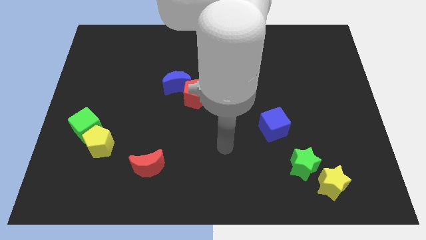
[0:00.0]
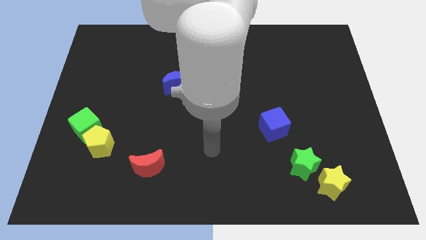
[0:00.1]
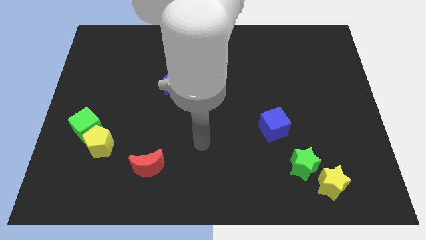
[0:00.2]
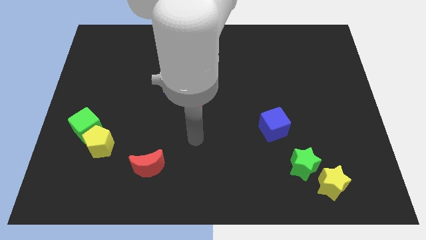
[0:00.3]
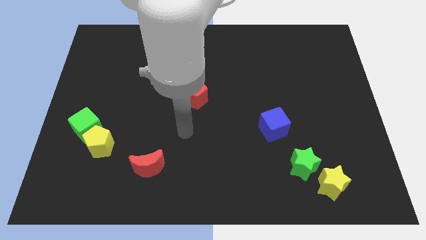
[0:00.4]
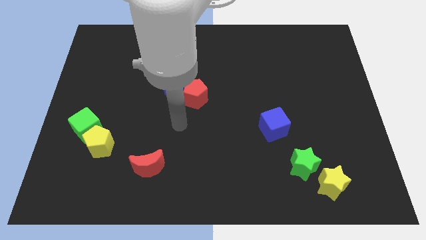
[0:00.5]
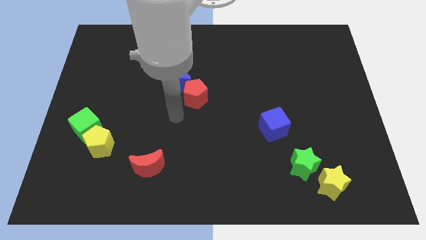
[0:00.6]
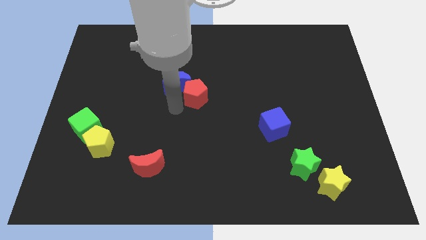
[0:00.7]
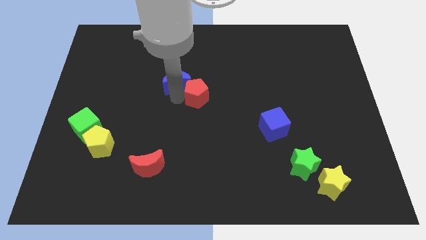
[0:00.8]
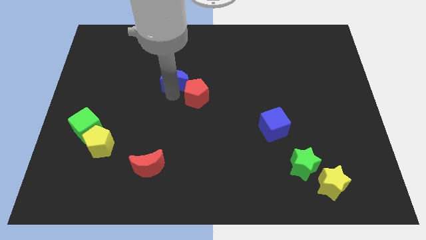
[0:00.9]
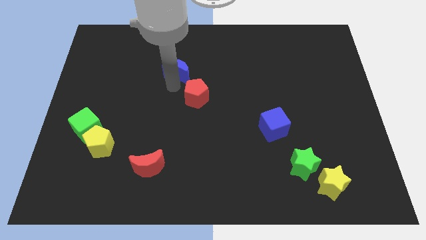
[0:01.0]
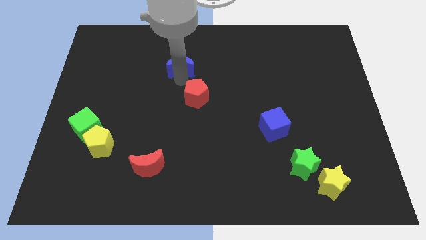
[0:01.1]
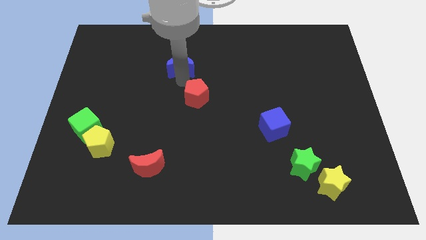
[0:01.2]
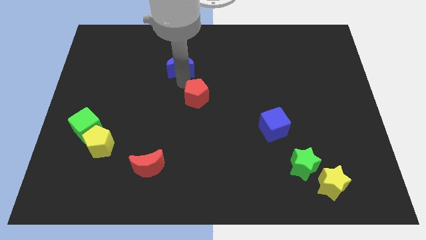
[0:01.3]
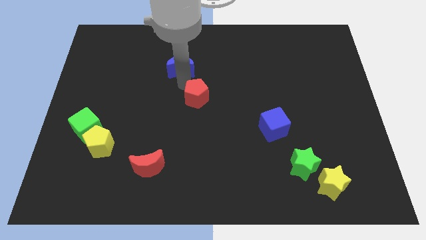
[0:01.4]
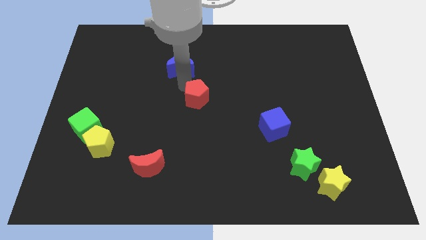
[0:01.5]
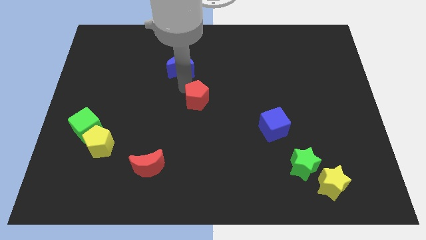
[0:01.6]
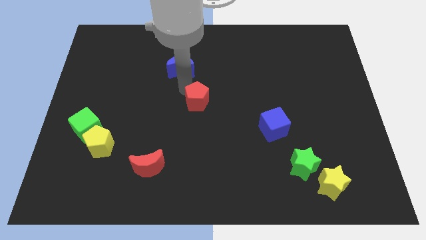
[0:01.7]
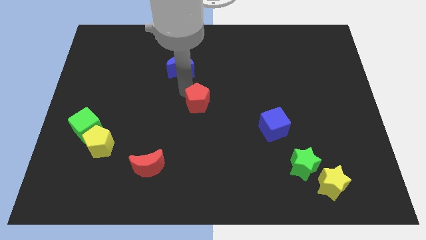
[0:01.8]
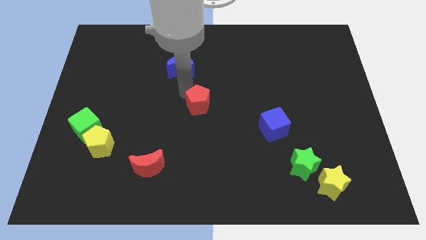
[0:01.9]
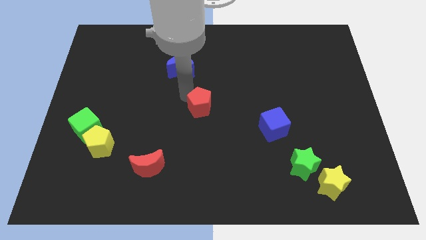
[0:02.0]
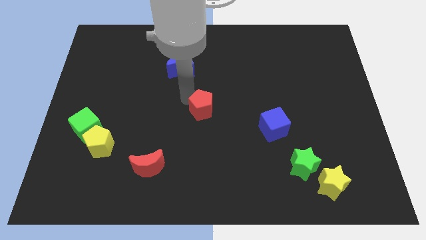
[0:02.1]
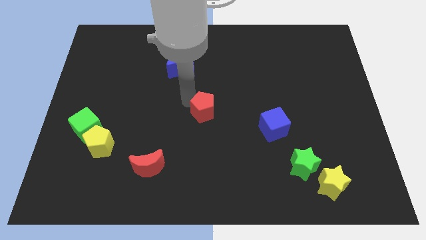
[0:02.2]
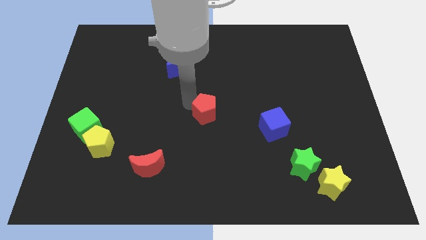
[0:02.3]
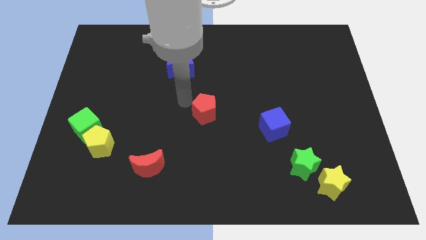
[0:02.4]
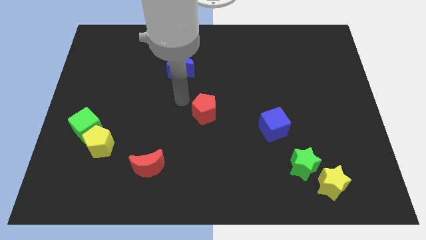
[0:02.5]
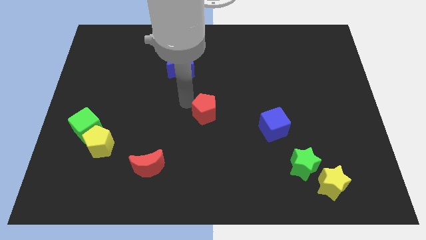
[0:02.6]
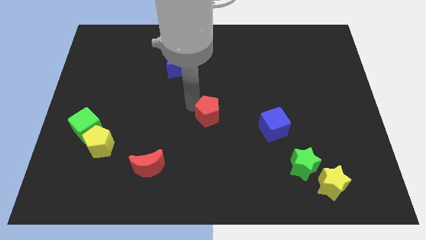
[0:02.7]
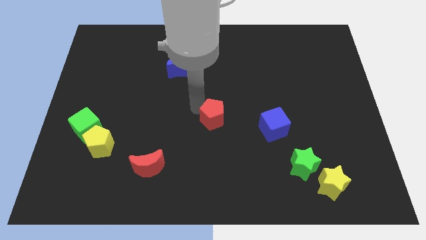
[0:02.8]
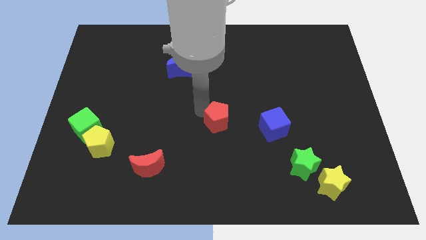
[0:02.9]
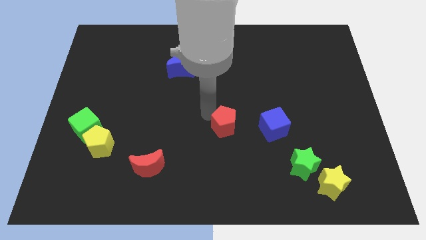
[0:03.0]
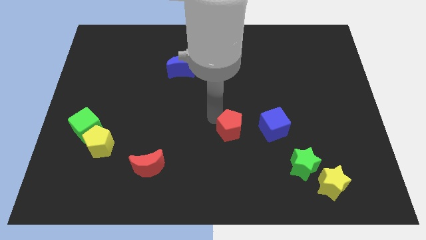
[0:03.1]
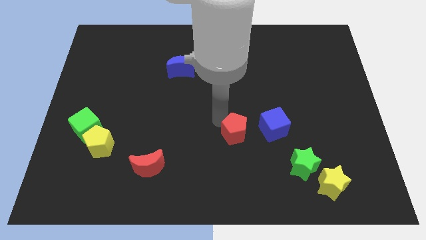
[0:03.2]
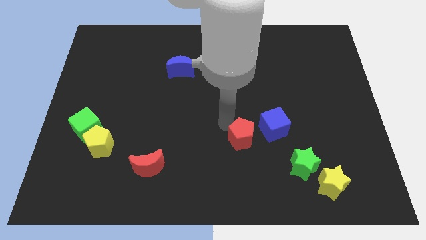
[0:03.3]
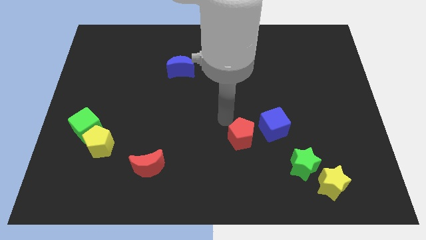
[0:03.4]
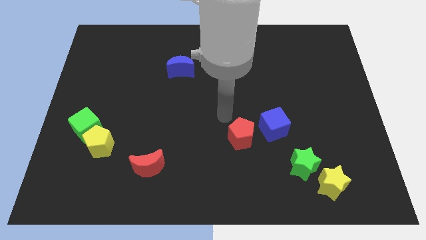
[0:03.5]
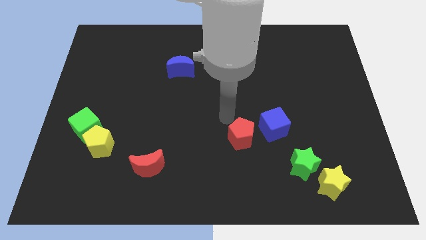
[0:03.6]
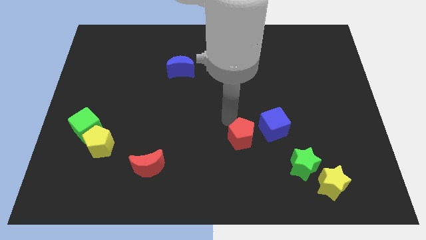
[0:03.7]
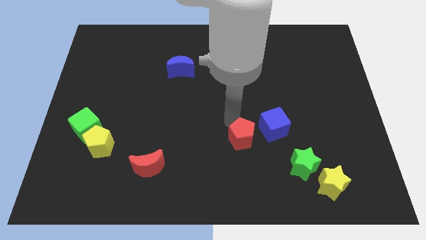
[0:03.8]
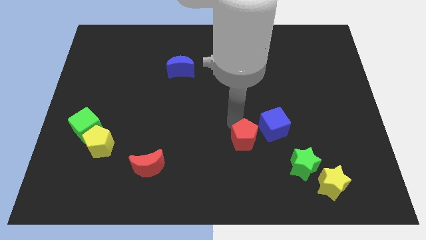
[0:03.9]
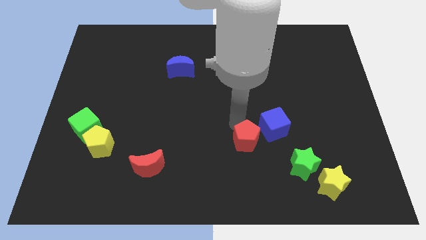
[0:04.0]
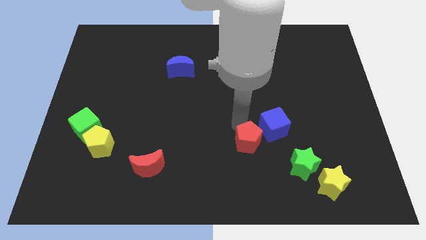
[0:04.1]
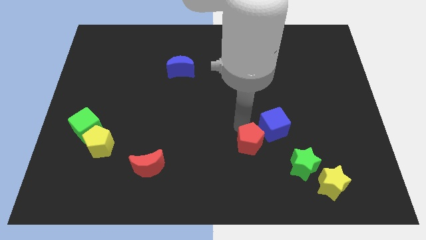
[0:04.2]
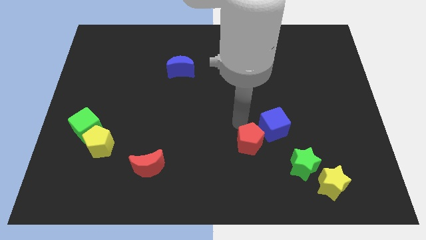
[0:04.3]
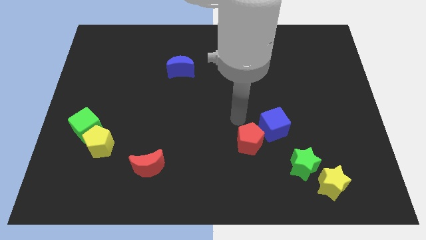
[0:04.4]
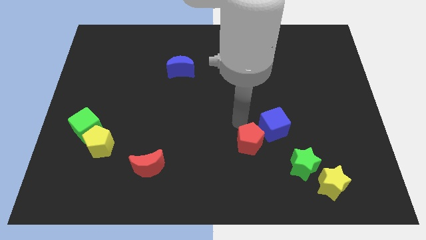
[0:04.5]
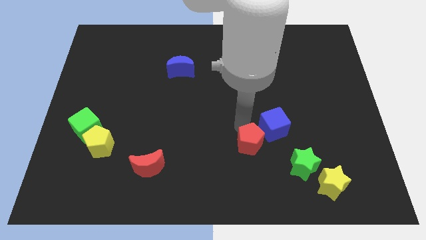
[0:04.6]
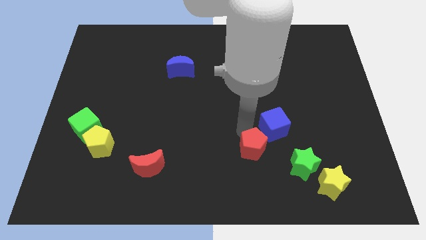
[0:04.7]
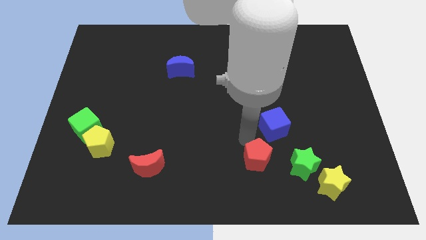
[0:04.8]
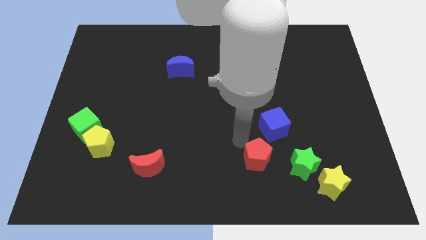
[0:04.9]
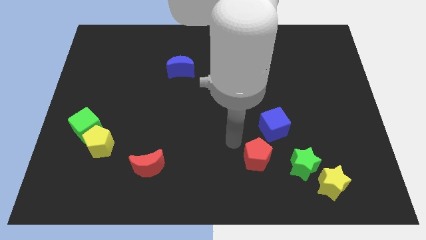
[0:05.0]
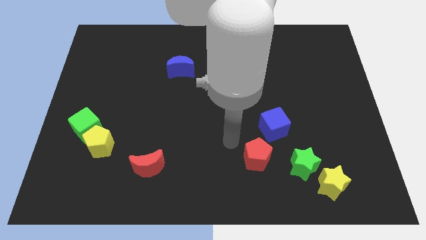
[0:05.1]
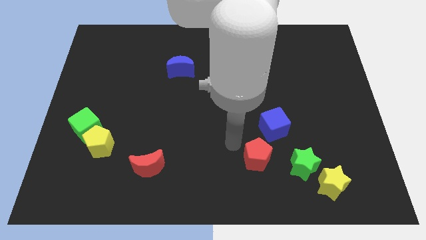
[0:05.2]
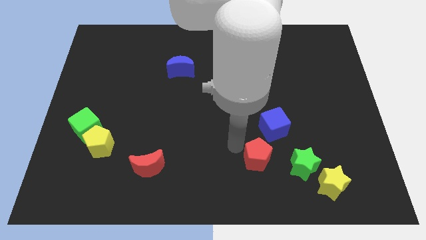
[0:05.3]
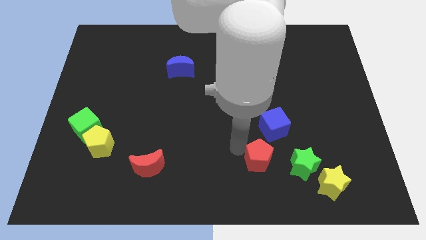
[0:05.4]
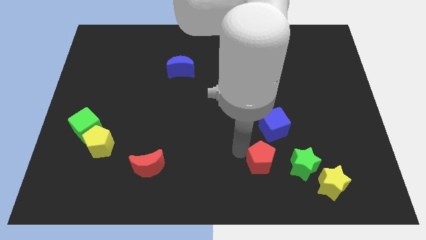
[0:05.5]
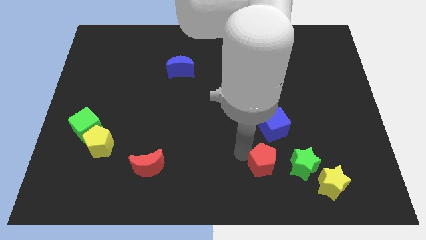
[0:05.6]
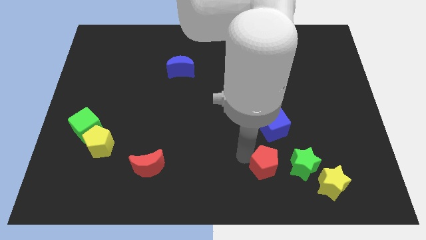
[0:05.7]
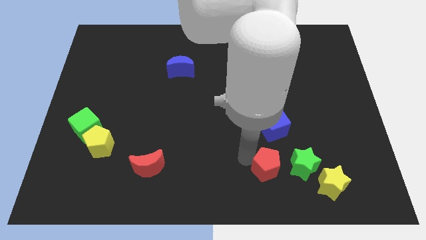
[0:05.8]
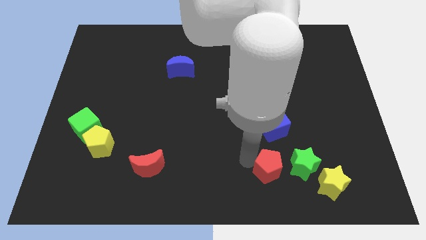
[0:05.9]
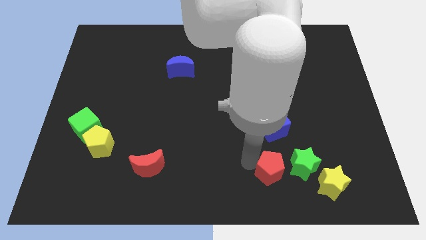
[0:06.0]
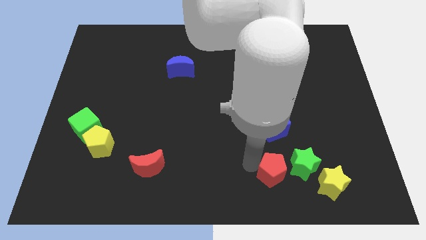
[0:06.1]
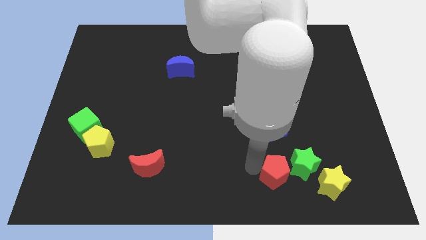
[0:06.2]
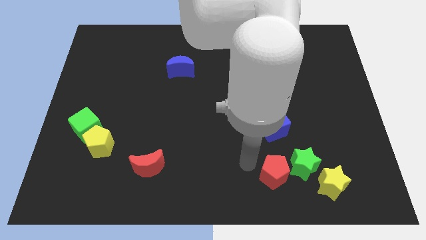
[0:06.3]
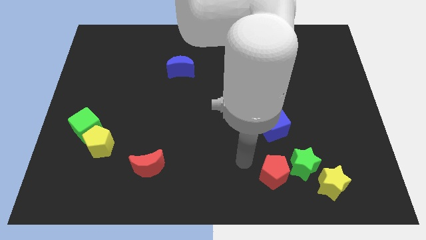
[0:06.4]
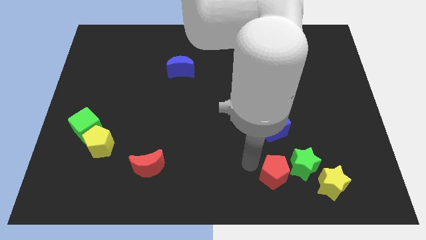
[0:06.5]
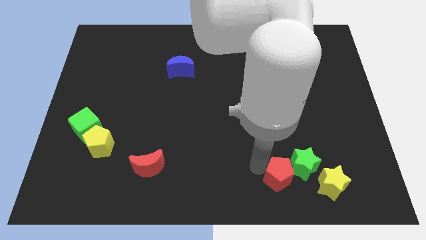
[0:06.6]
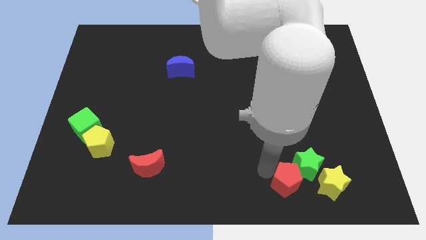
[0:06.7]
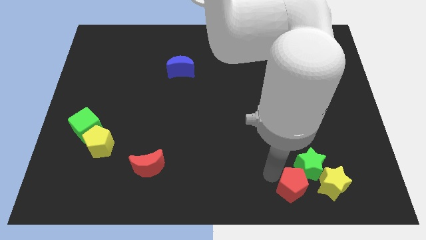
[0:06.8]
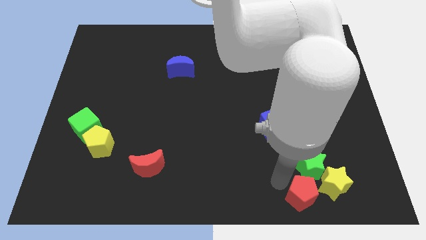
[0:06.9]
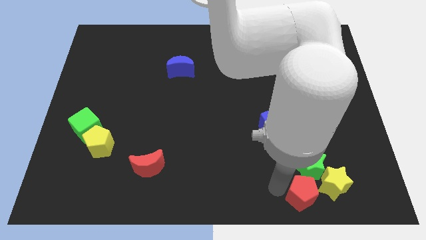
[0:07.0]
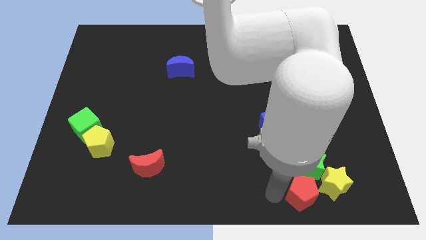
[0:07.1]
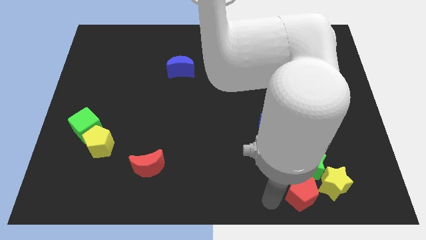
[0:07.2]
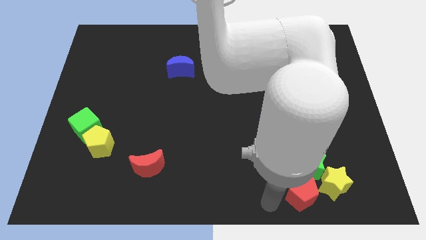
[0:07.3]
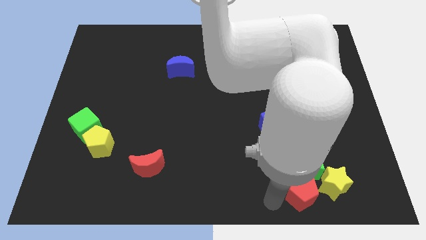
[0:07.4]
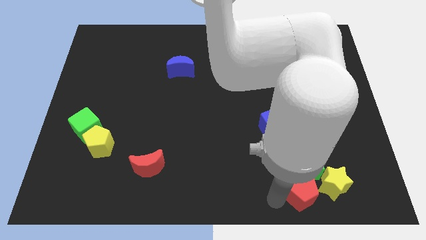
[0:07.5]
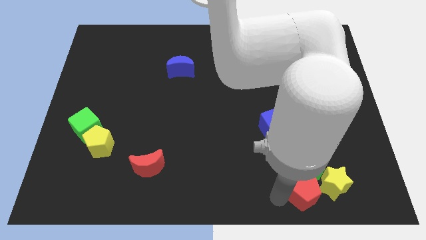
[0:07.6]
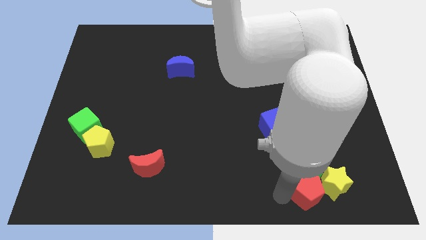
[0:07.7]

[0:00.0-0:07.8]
put the red pentagon towards the yellow star
